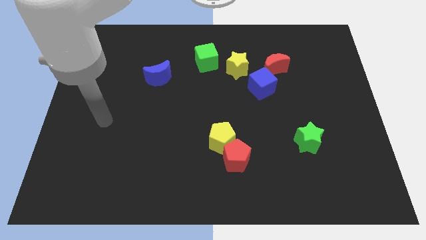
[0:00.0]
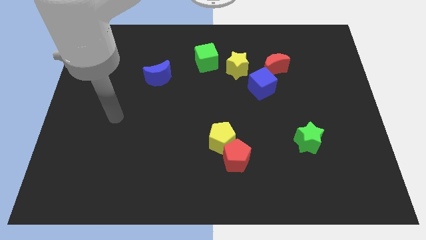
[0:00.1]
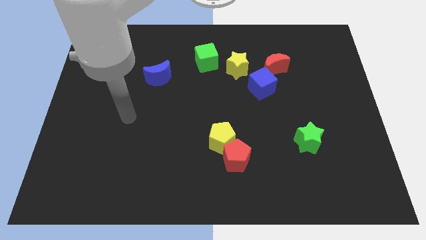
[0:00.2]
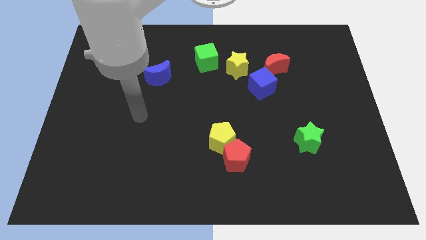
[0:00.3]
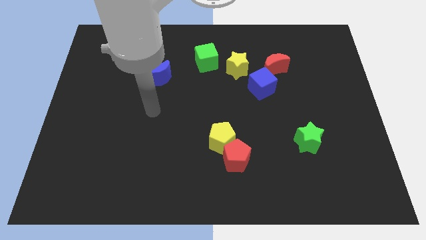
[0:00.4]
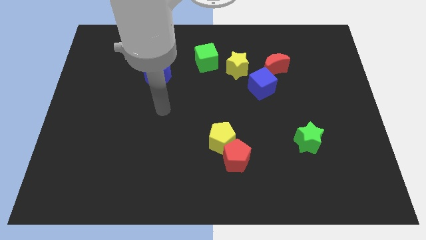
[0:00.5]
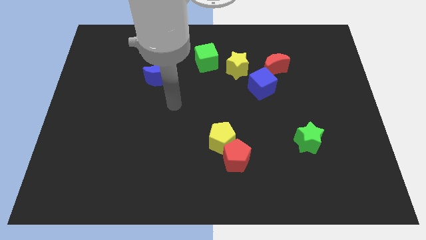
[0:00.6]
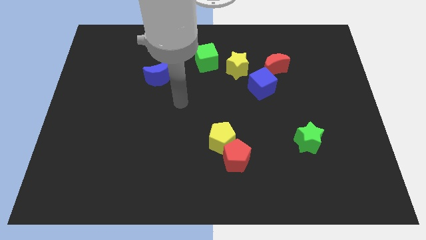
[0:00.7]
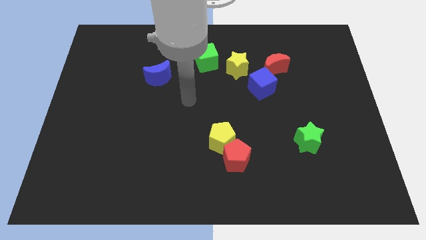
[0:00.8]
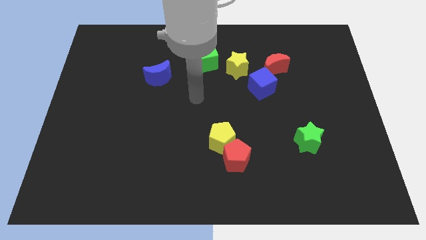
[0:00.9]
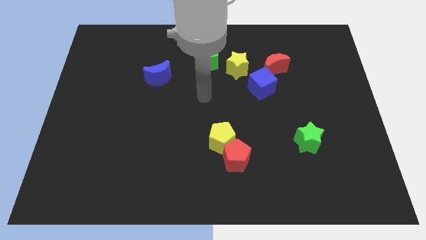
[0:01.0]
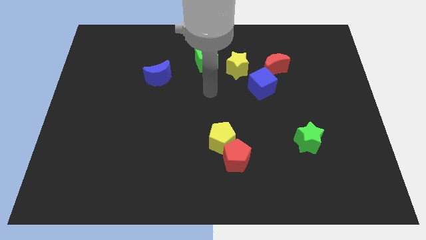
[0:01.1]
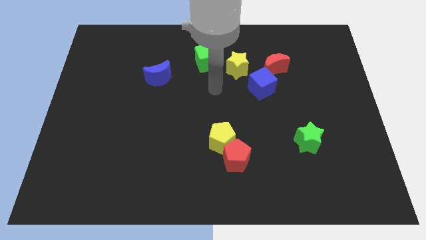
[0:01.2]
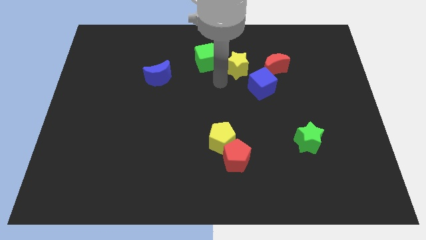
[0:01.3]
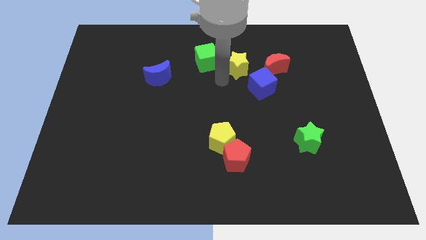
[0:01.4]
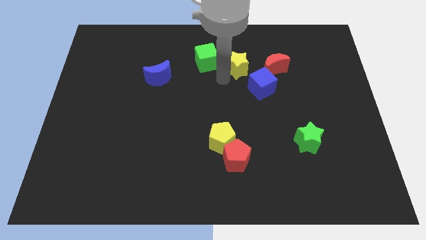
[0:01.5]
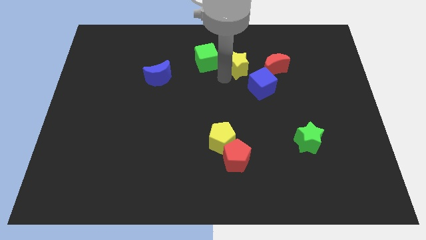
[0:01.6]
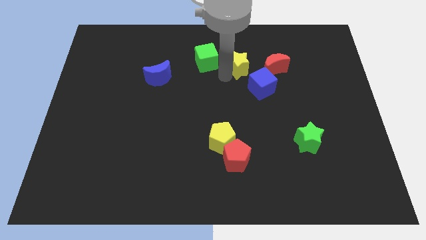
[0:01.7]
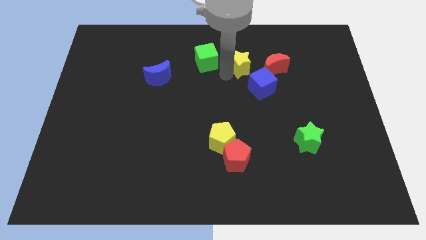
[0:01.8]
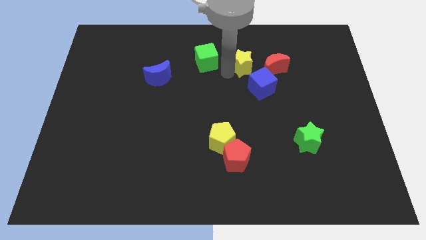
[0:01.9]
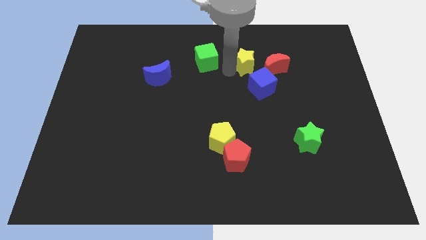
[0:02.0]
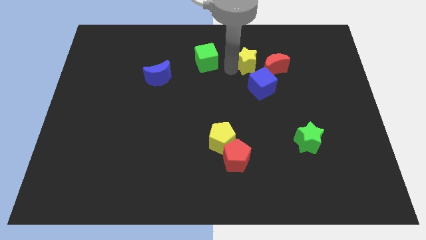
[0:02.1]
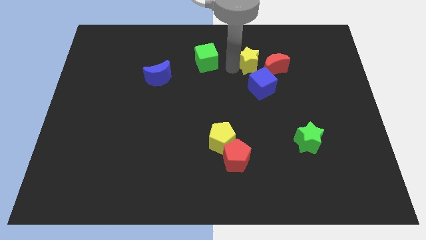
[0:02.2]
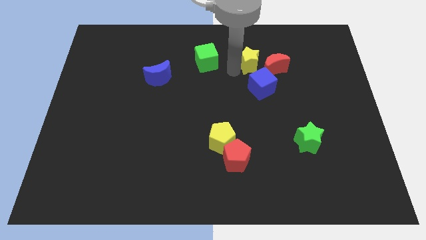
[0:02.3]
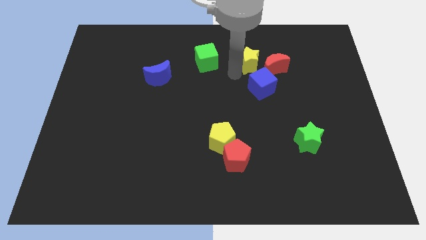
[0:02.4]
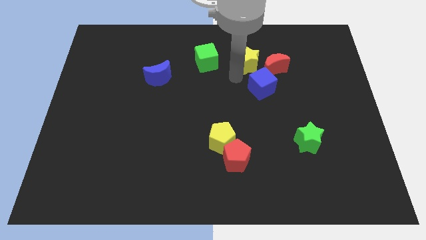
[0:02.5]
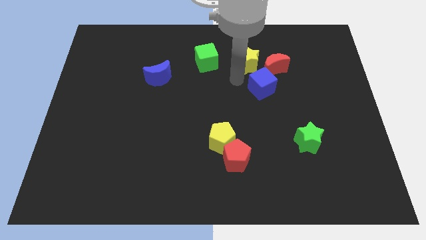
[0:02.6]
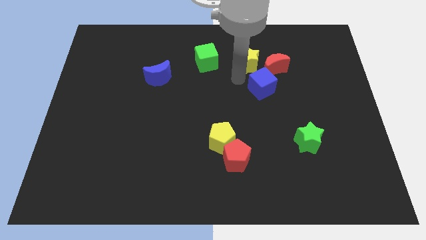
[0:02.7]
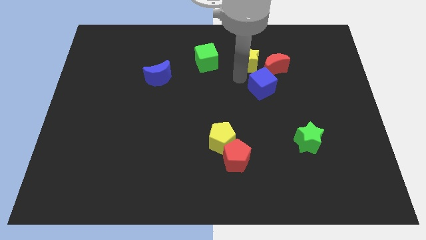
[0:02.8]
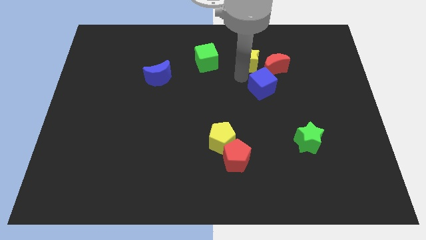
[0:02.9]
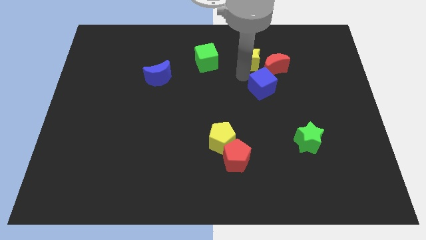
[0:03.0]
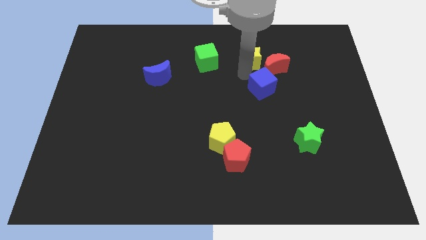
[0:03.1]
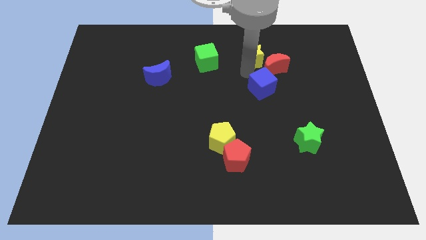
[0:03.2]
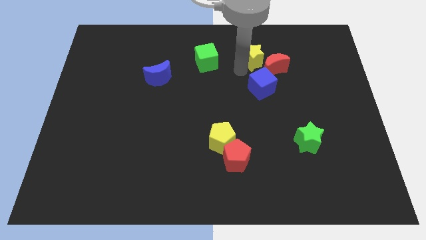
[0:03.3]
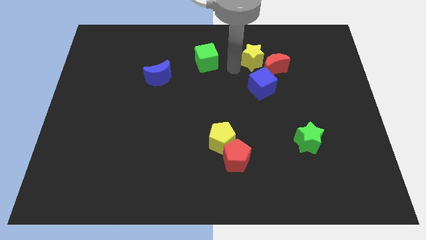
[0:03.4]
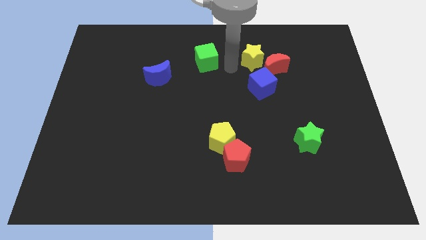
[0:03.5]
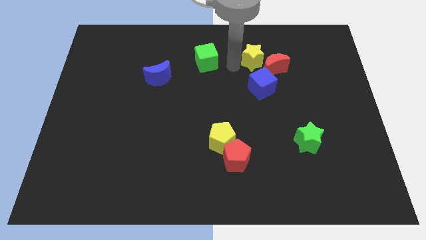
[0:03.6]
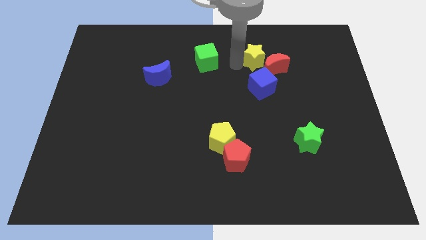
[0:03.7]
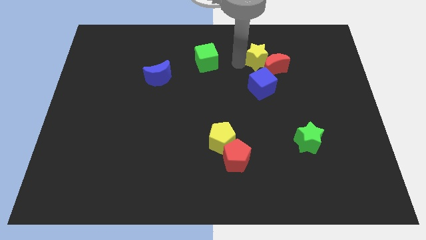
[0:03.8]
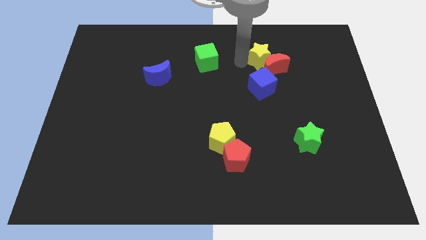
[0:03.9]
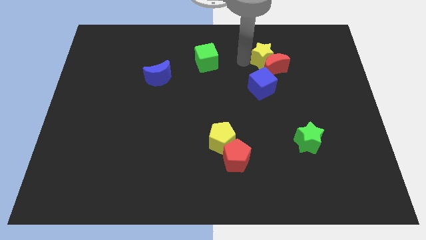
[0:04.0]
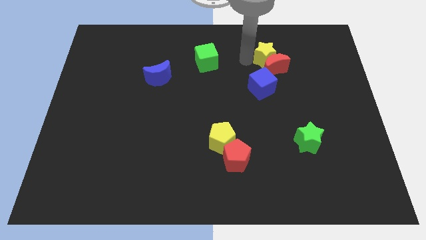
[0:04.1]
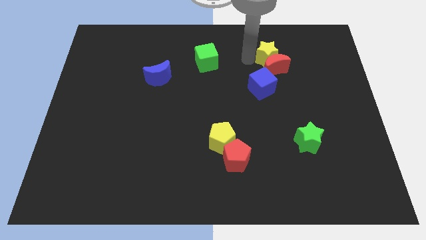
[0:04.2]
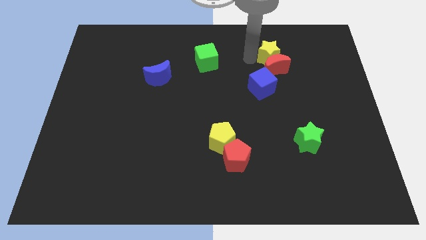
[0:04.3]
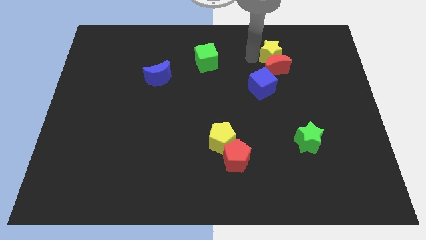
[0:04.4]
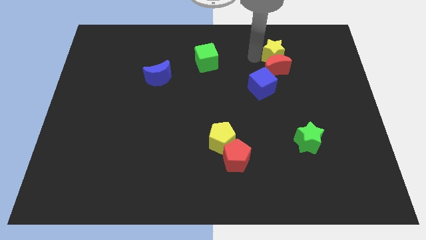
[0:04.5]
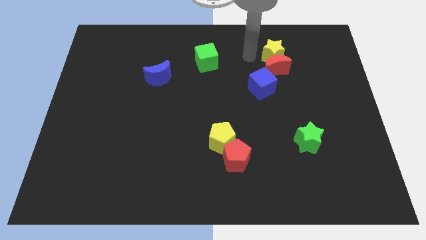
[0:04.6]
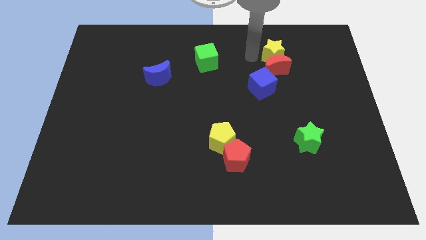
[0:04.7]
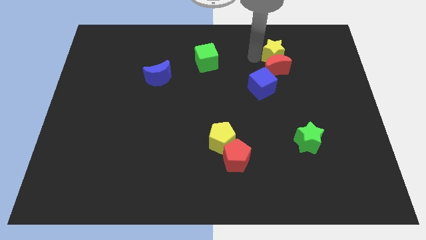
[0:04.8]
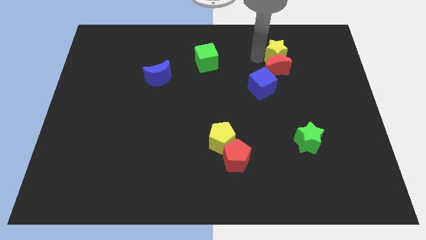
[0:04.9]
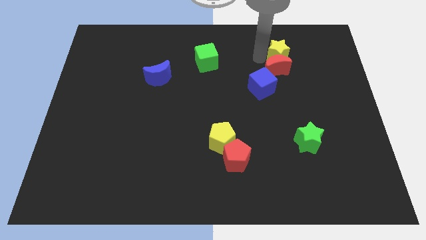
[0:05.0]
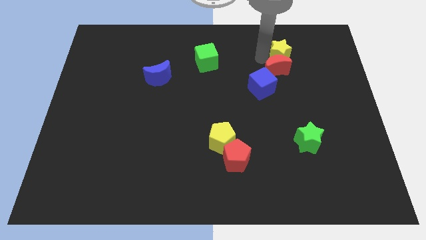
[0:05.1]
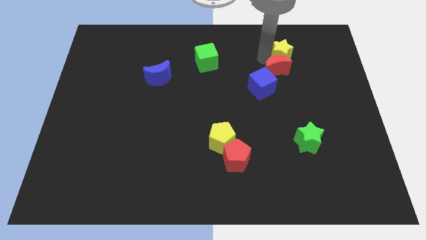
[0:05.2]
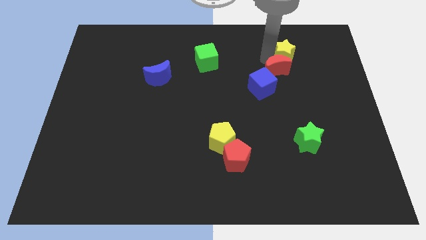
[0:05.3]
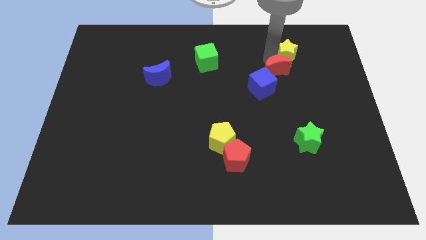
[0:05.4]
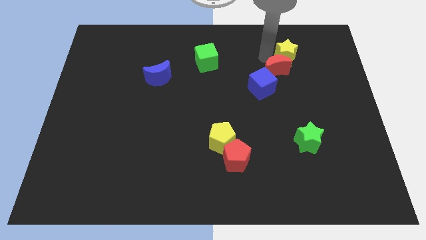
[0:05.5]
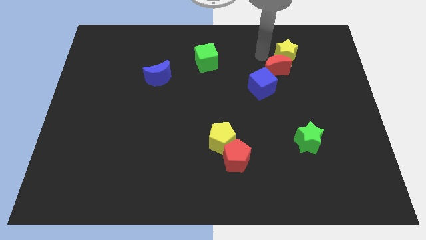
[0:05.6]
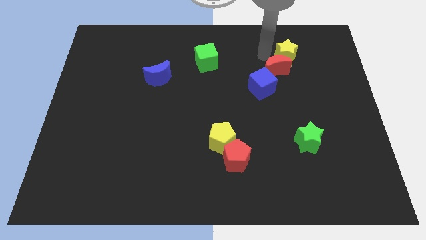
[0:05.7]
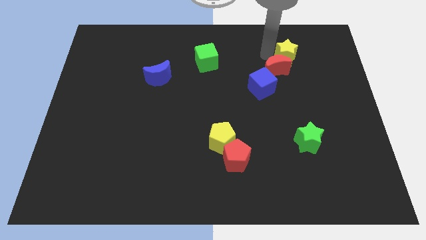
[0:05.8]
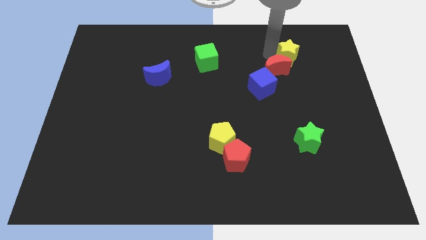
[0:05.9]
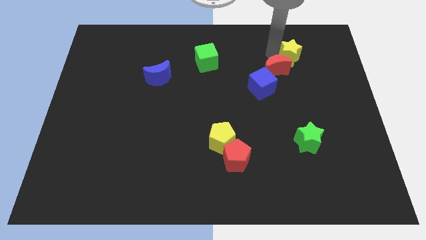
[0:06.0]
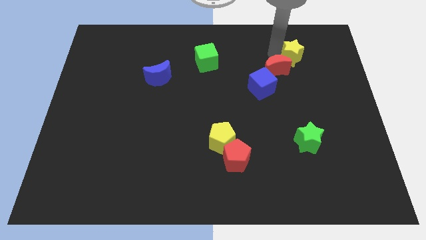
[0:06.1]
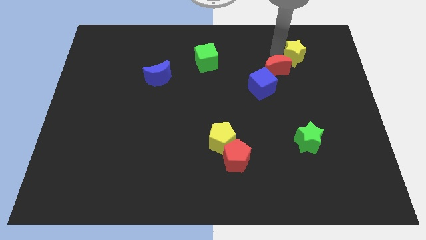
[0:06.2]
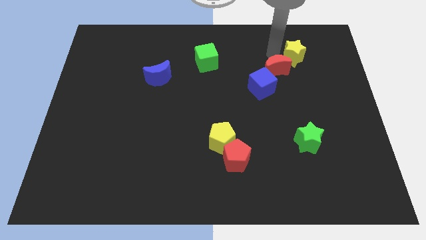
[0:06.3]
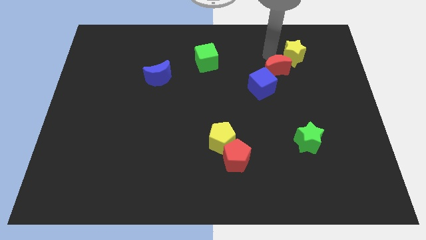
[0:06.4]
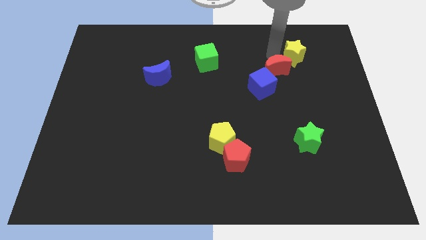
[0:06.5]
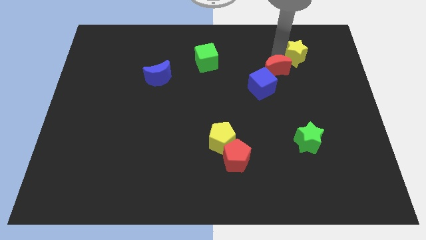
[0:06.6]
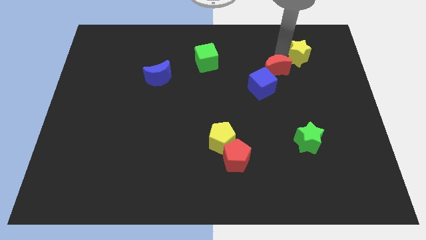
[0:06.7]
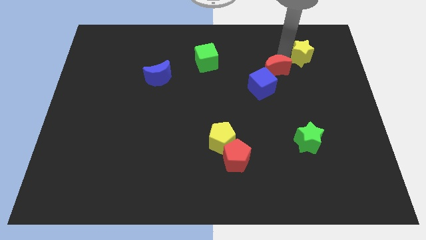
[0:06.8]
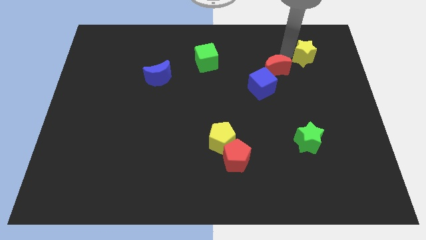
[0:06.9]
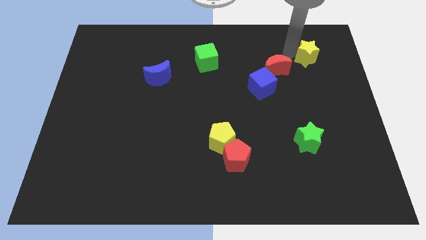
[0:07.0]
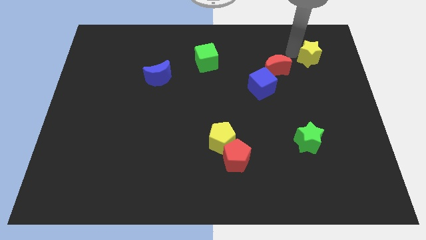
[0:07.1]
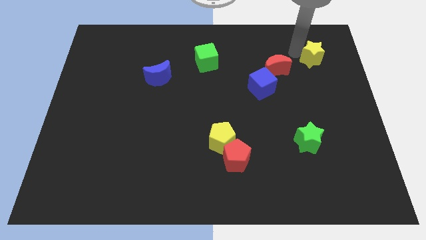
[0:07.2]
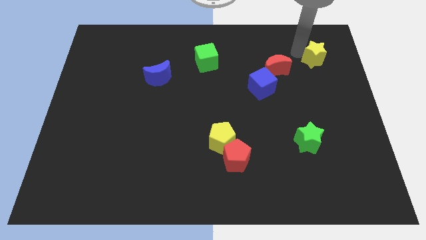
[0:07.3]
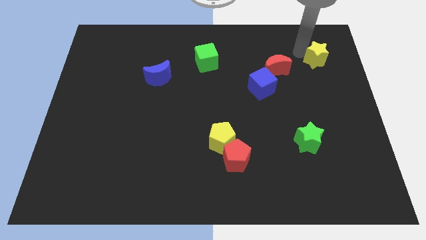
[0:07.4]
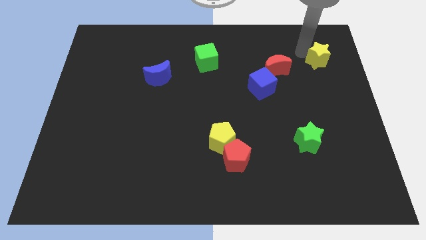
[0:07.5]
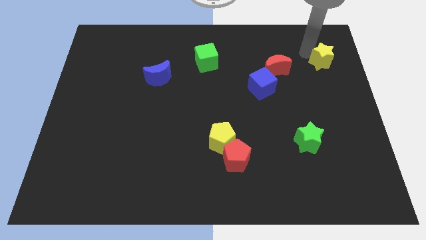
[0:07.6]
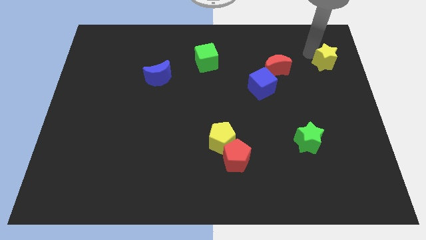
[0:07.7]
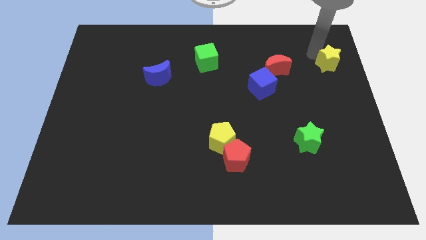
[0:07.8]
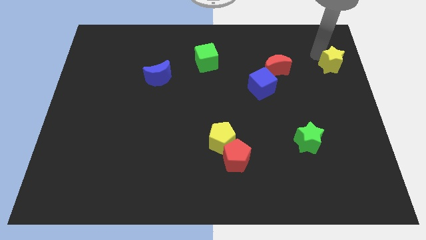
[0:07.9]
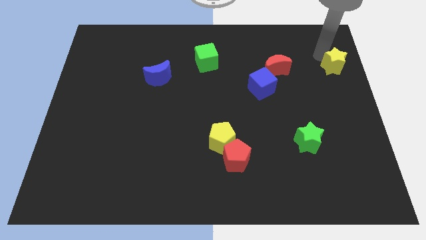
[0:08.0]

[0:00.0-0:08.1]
push the yellow star to the center right
